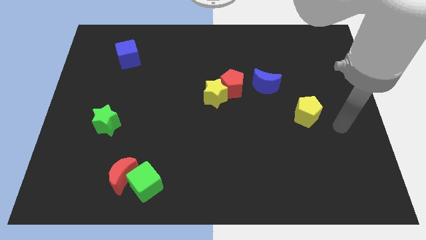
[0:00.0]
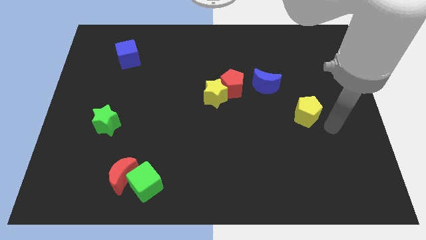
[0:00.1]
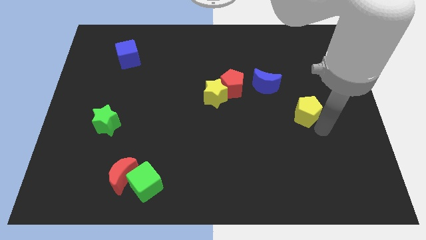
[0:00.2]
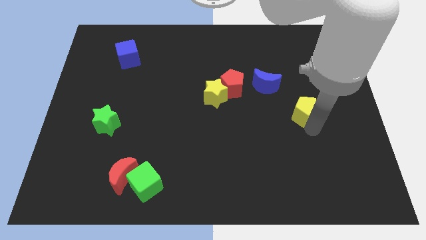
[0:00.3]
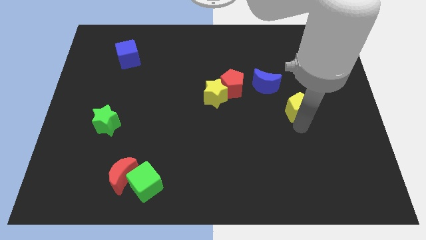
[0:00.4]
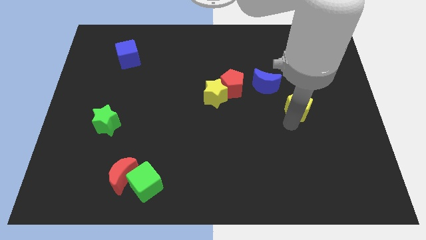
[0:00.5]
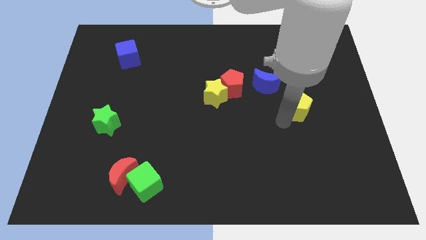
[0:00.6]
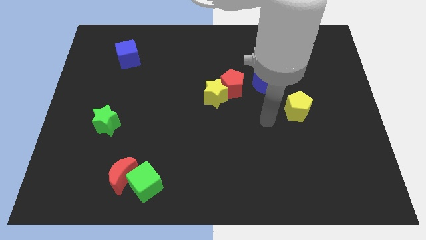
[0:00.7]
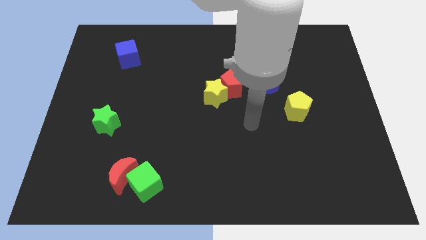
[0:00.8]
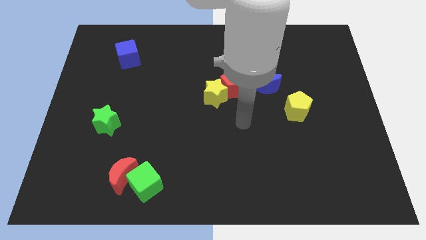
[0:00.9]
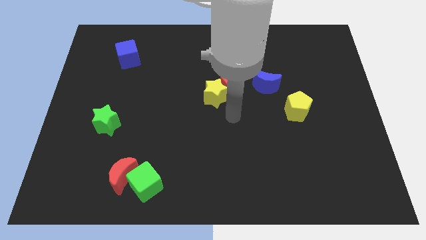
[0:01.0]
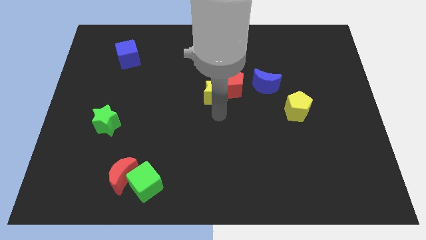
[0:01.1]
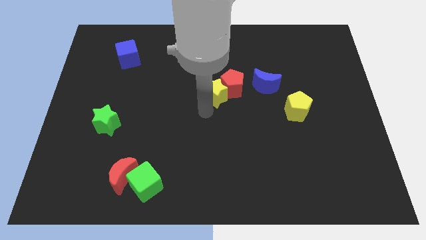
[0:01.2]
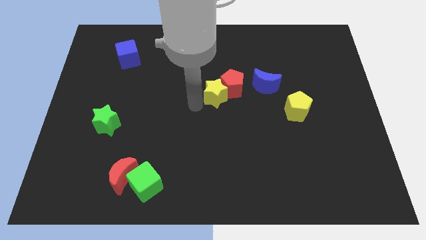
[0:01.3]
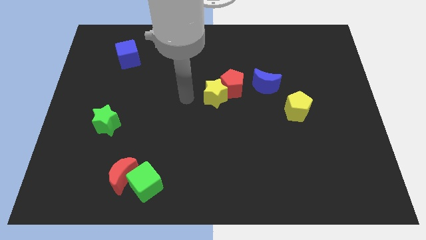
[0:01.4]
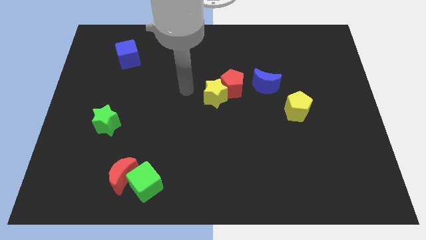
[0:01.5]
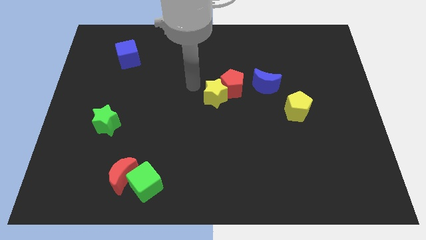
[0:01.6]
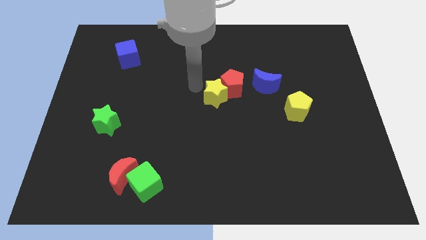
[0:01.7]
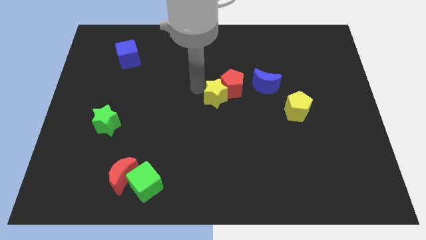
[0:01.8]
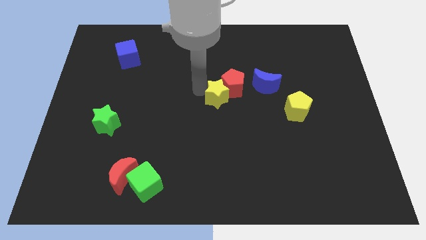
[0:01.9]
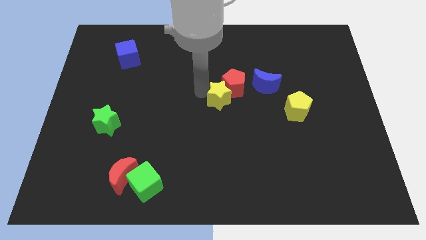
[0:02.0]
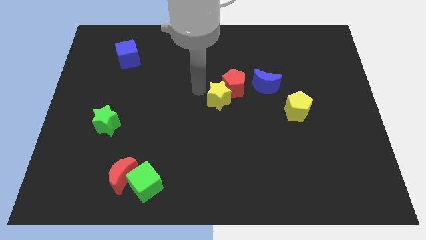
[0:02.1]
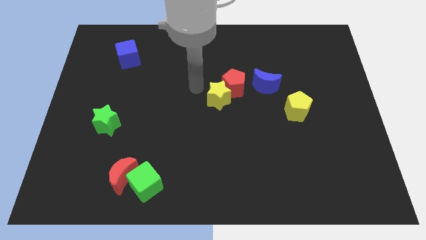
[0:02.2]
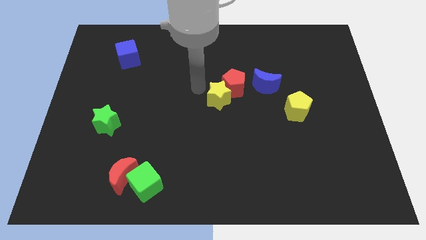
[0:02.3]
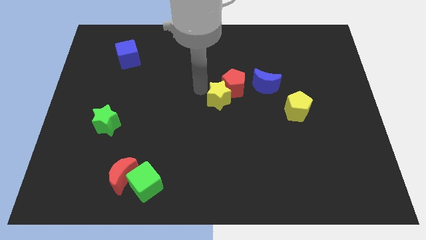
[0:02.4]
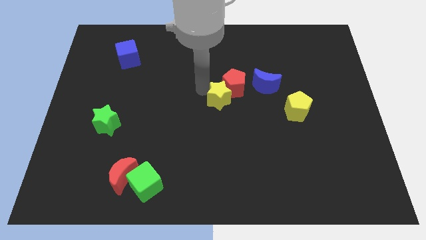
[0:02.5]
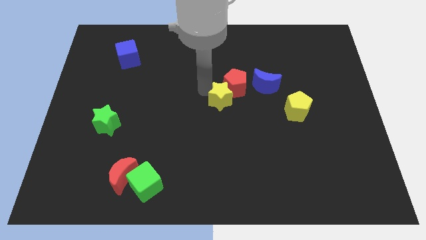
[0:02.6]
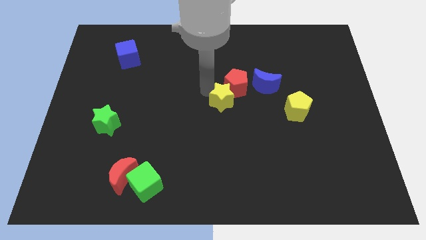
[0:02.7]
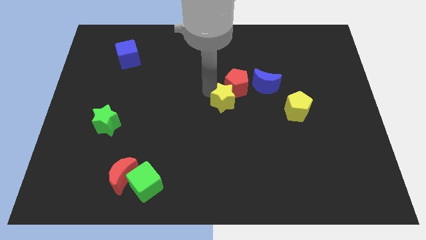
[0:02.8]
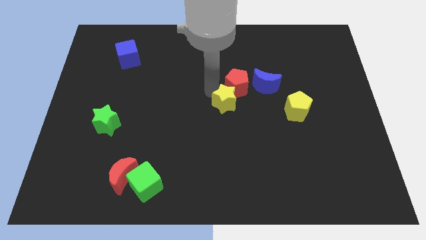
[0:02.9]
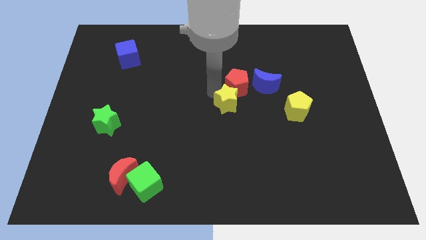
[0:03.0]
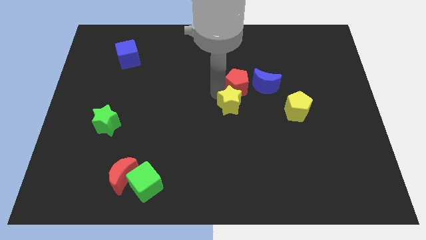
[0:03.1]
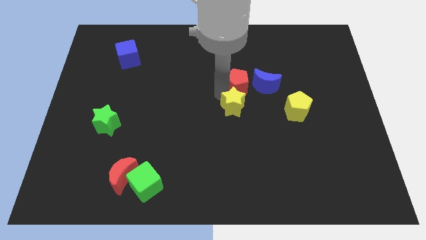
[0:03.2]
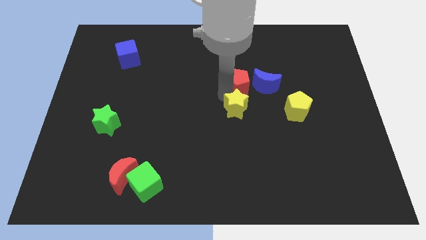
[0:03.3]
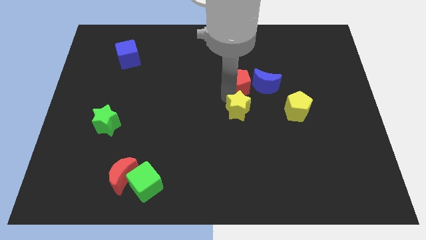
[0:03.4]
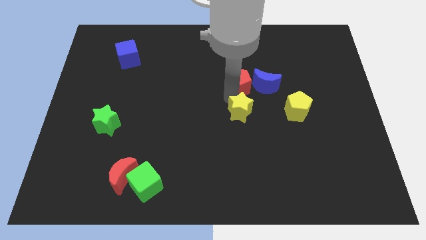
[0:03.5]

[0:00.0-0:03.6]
slide the yellow star downwards and to the right a little bit

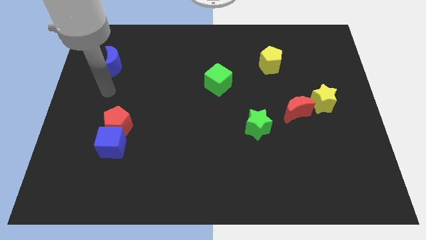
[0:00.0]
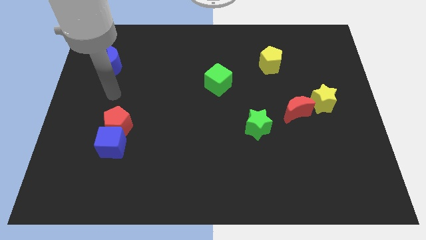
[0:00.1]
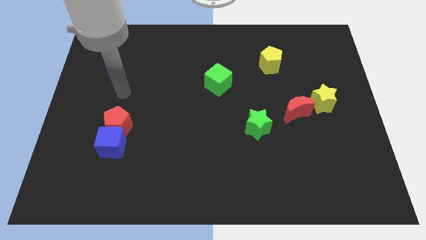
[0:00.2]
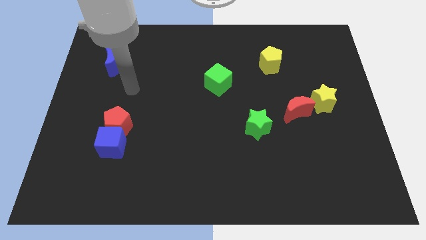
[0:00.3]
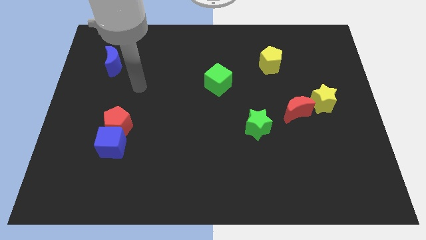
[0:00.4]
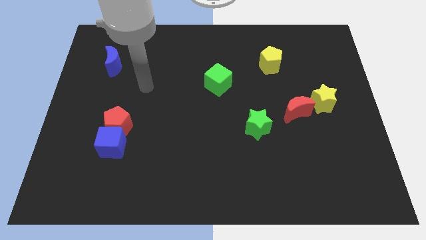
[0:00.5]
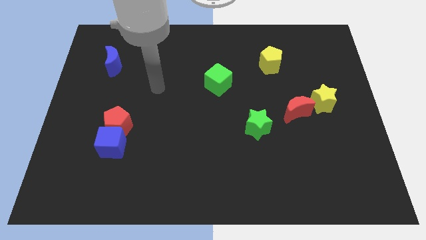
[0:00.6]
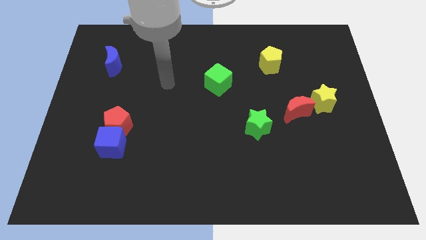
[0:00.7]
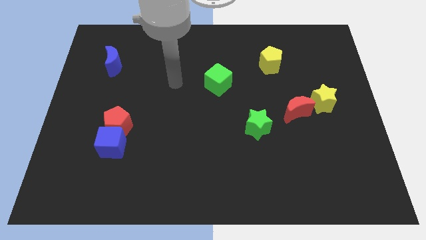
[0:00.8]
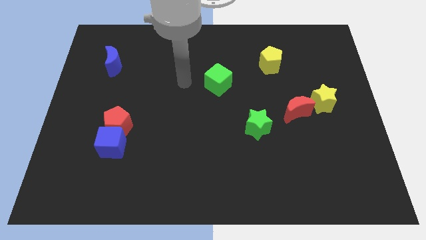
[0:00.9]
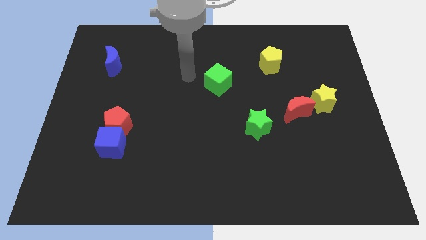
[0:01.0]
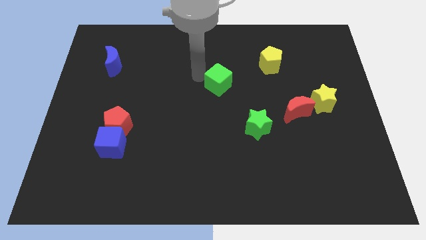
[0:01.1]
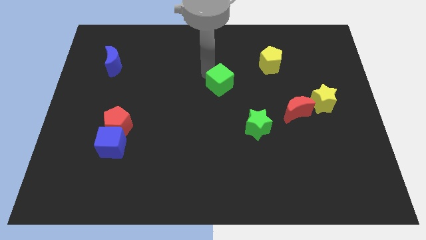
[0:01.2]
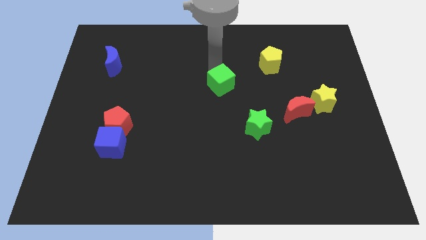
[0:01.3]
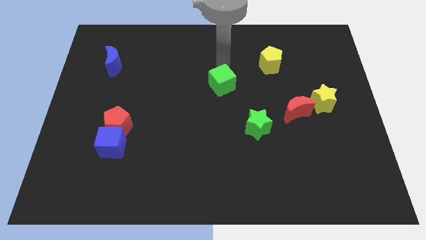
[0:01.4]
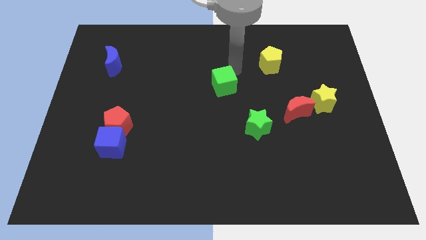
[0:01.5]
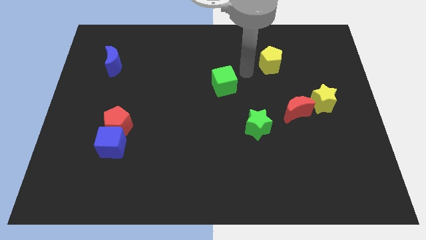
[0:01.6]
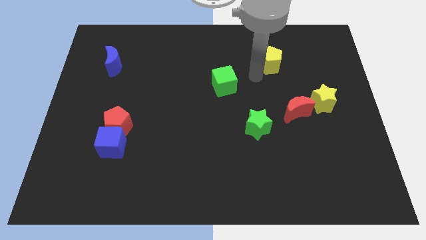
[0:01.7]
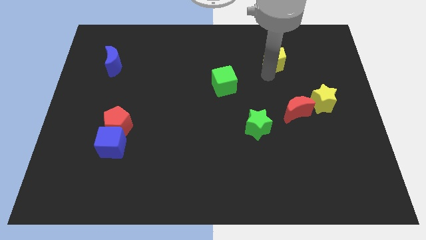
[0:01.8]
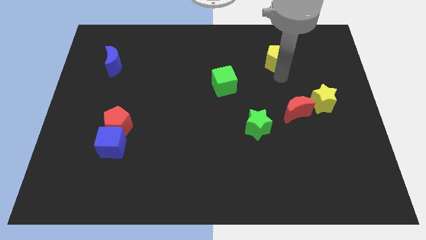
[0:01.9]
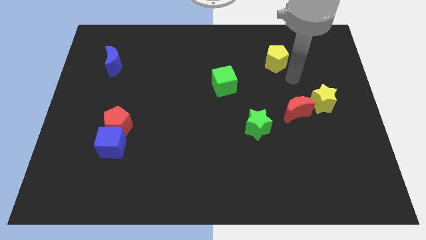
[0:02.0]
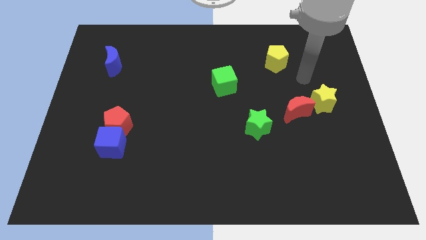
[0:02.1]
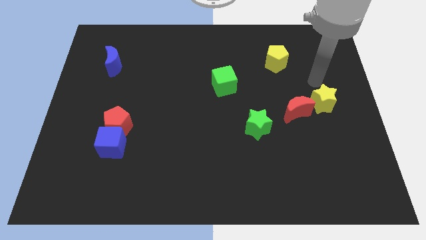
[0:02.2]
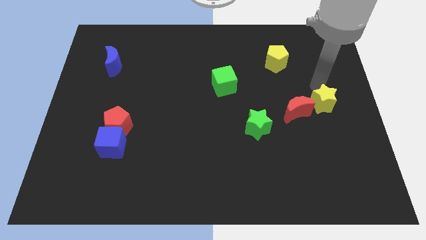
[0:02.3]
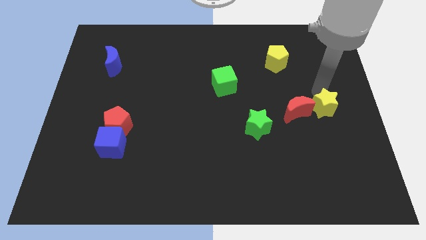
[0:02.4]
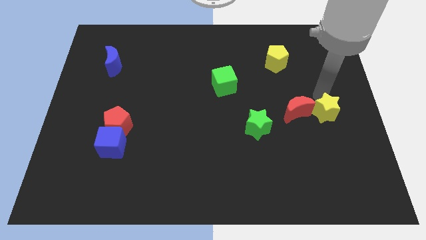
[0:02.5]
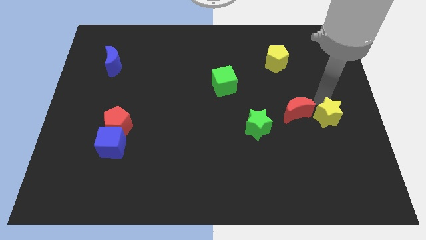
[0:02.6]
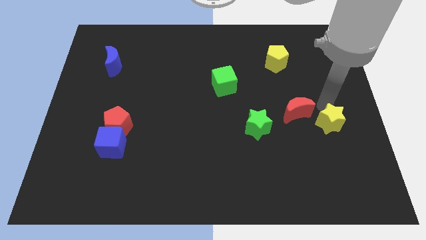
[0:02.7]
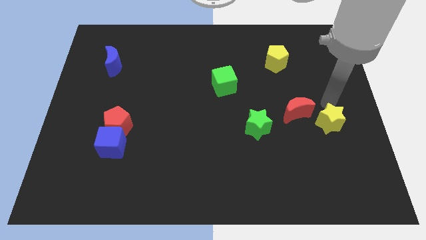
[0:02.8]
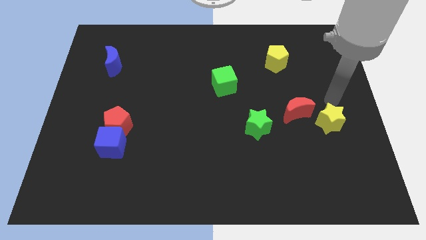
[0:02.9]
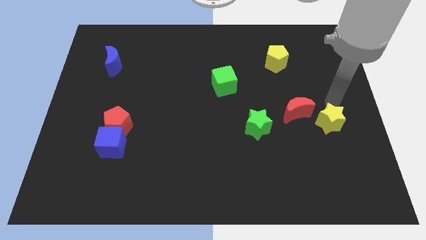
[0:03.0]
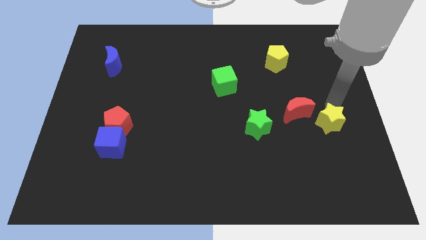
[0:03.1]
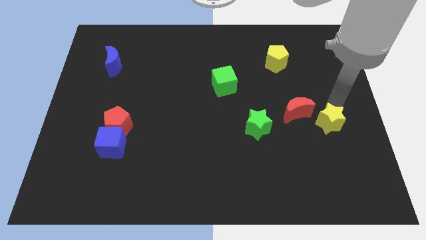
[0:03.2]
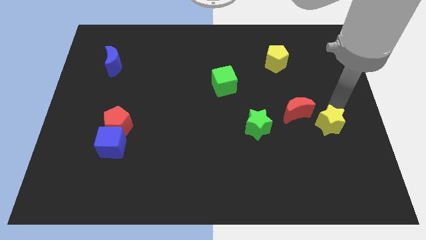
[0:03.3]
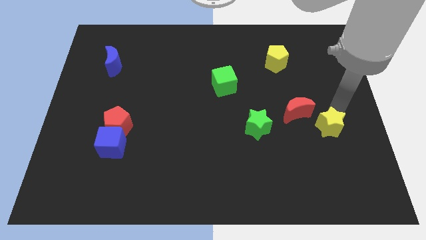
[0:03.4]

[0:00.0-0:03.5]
slightly move the yellow star down

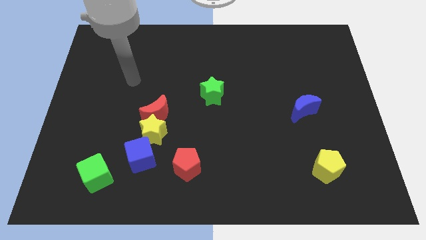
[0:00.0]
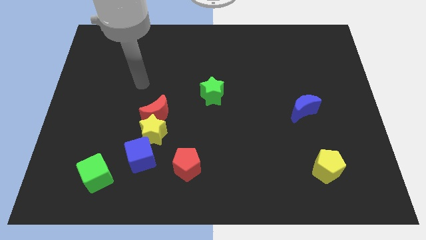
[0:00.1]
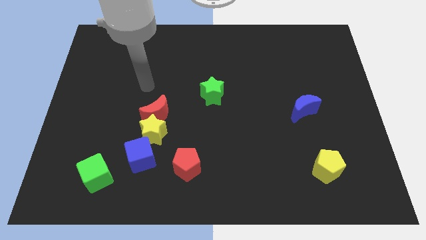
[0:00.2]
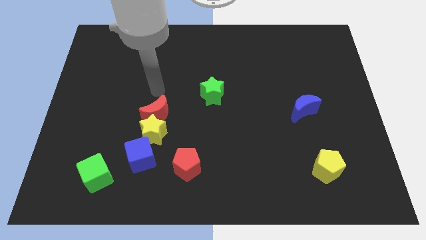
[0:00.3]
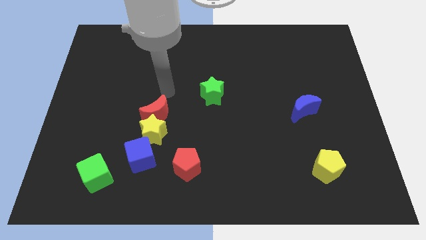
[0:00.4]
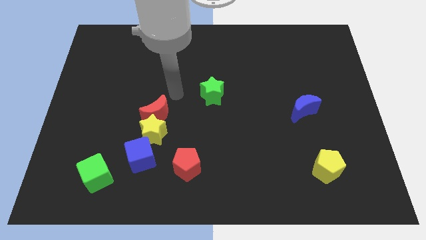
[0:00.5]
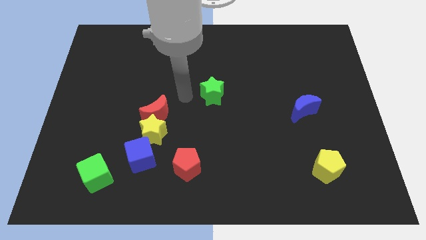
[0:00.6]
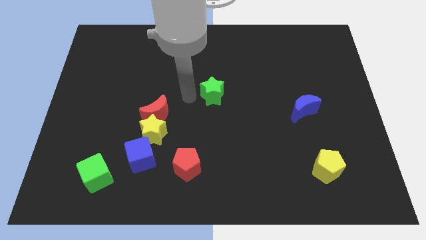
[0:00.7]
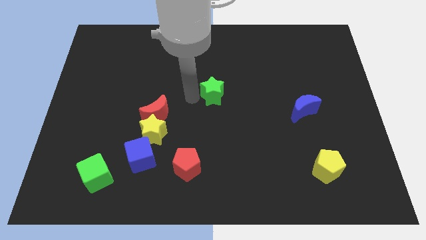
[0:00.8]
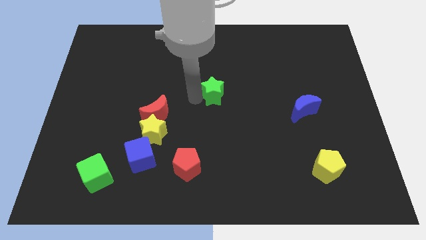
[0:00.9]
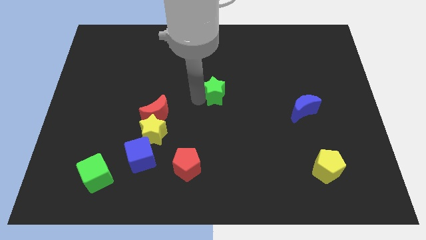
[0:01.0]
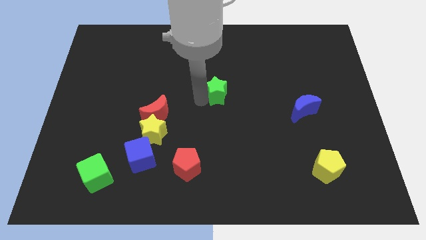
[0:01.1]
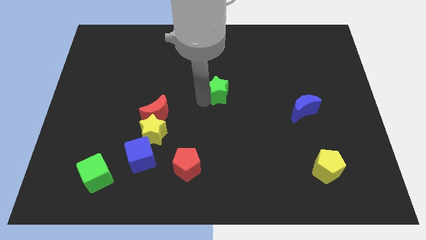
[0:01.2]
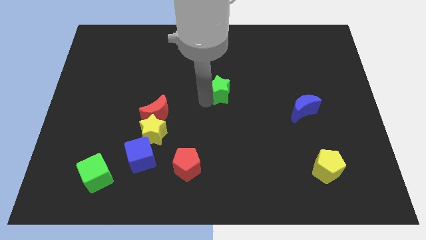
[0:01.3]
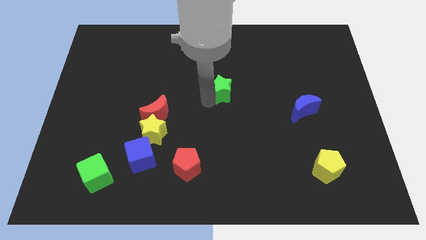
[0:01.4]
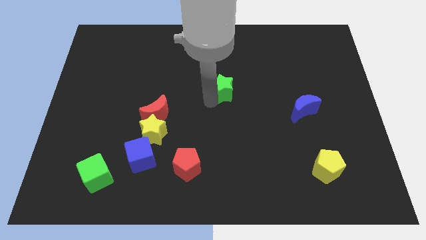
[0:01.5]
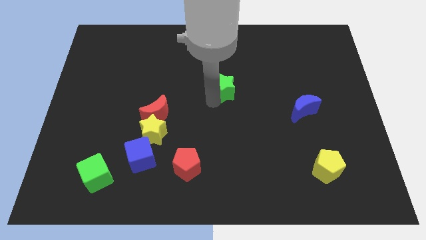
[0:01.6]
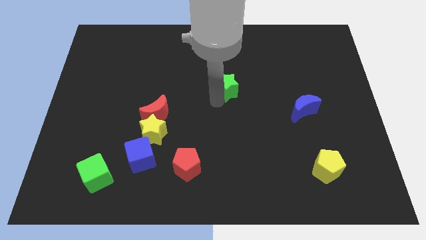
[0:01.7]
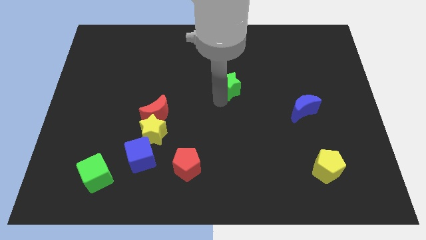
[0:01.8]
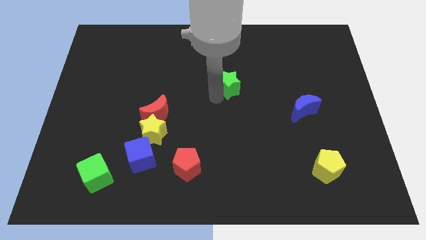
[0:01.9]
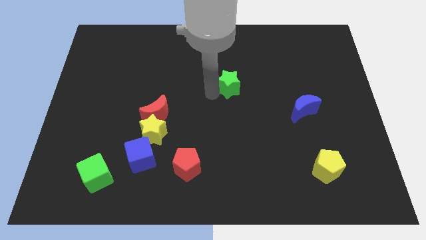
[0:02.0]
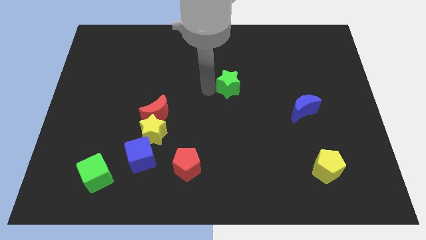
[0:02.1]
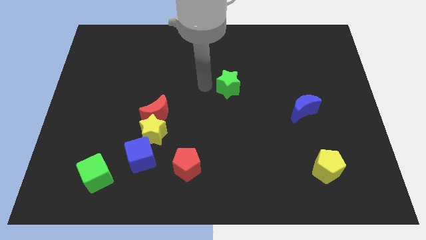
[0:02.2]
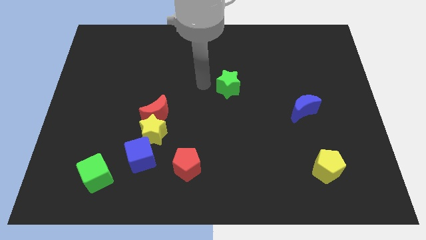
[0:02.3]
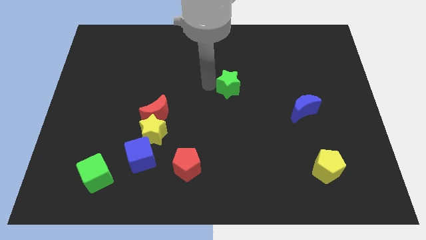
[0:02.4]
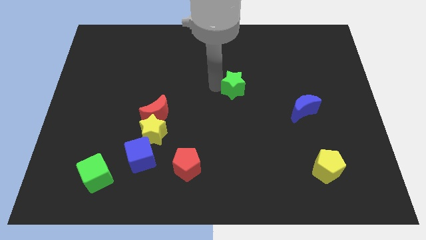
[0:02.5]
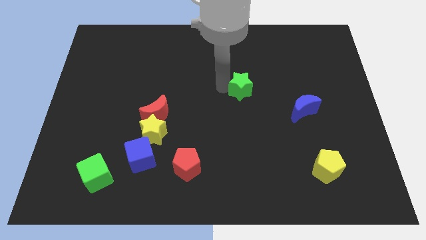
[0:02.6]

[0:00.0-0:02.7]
slightly move the green star right
